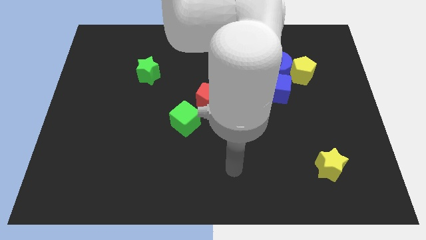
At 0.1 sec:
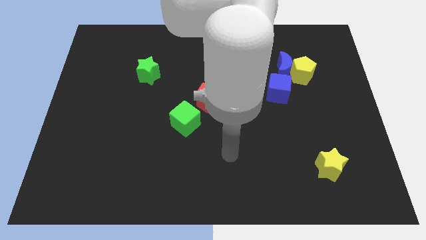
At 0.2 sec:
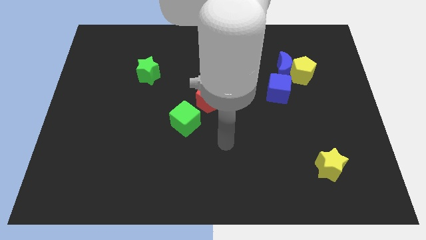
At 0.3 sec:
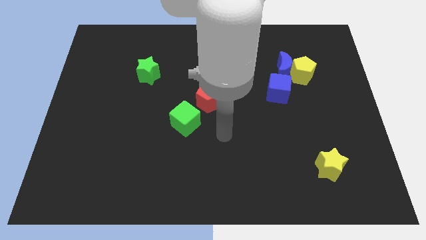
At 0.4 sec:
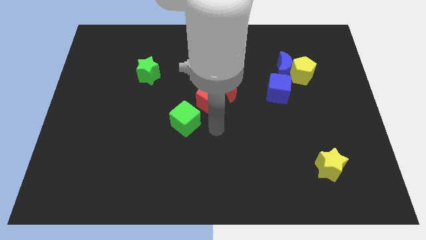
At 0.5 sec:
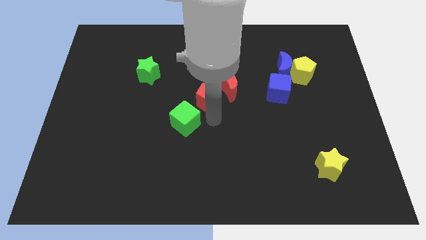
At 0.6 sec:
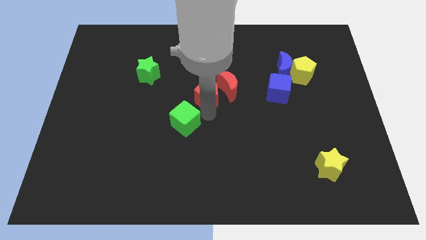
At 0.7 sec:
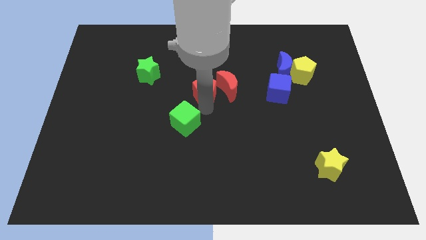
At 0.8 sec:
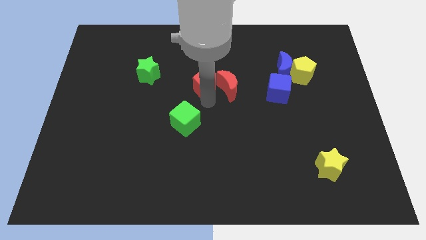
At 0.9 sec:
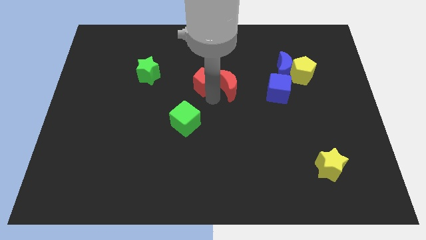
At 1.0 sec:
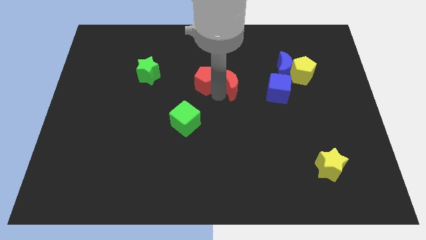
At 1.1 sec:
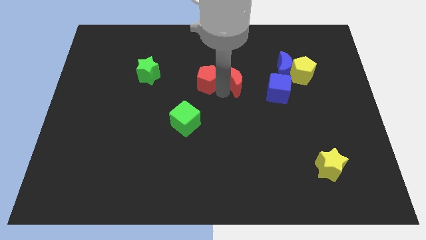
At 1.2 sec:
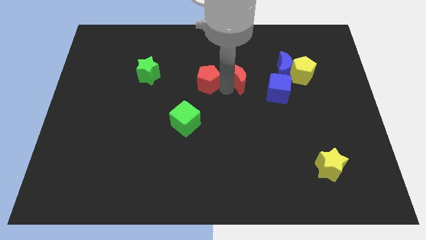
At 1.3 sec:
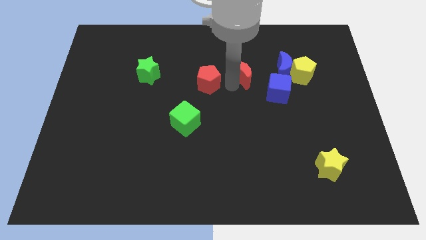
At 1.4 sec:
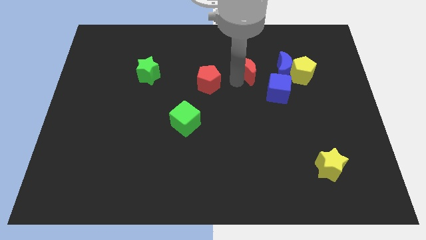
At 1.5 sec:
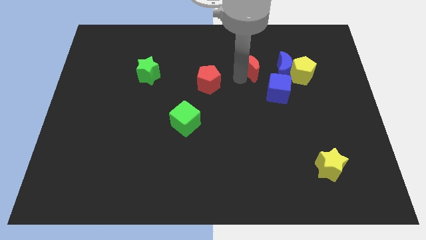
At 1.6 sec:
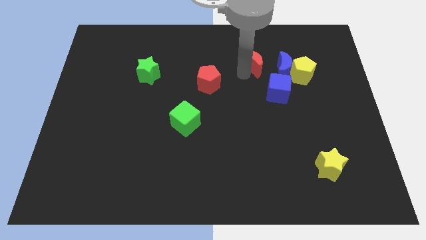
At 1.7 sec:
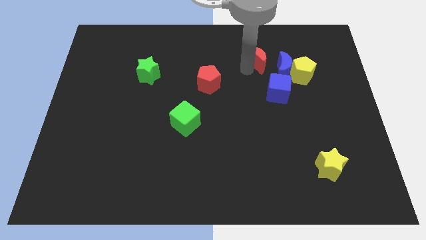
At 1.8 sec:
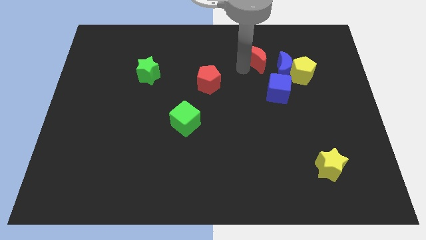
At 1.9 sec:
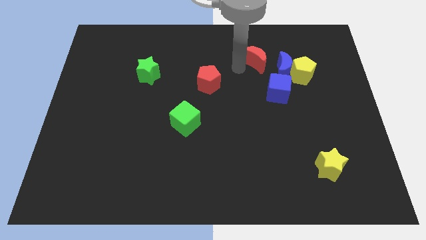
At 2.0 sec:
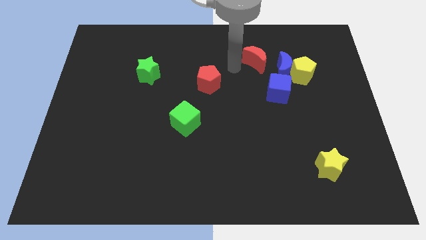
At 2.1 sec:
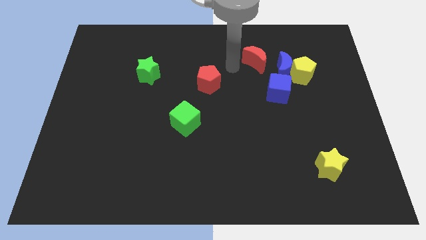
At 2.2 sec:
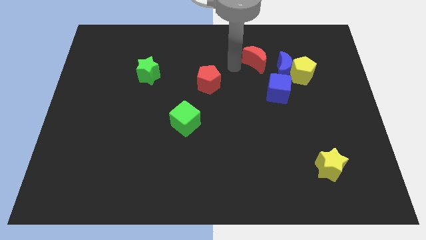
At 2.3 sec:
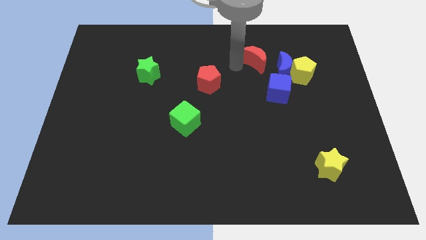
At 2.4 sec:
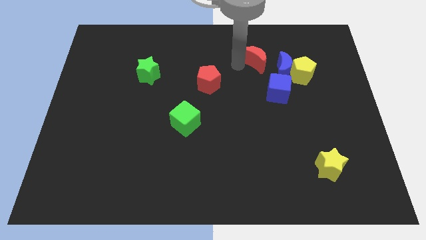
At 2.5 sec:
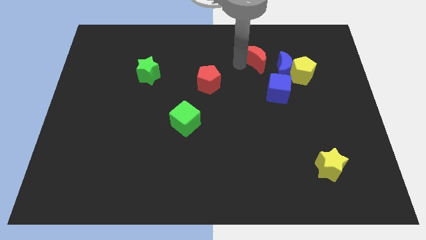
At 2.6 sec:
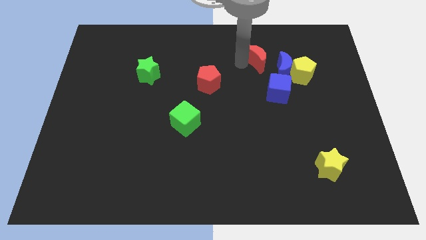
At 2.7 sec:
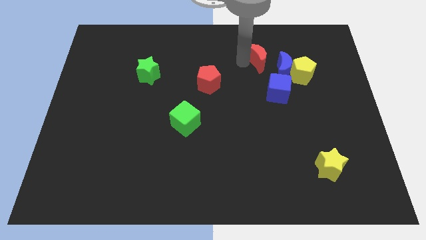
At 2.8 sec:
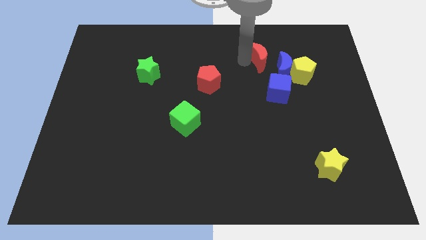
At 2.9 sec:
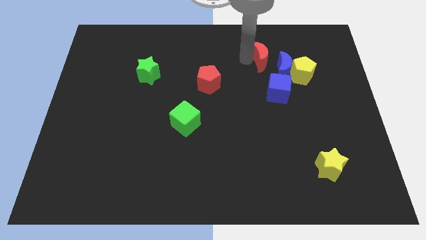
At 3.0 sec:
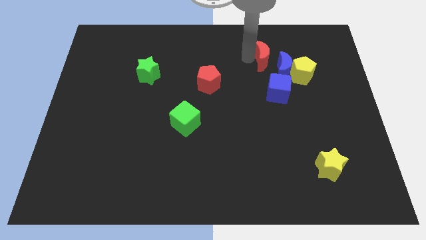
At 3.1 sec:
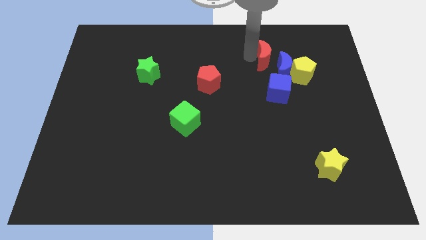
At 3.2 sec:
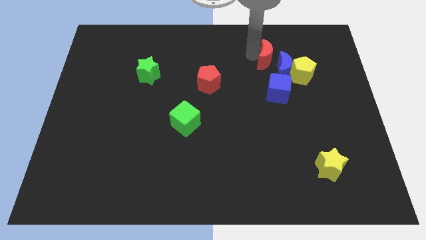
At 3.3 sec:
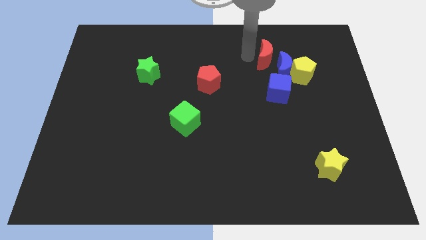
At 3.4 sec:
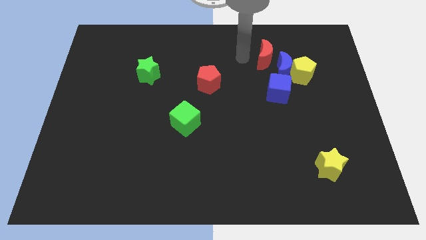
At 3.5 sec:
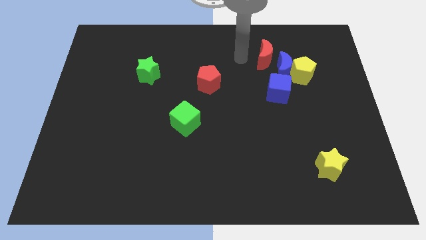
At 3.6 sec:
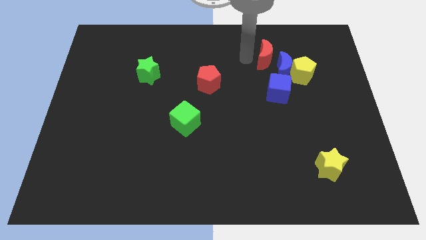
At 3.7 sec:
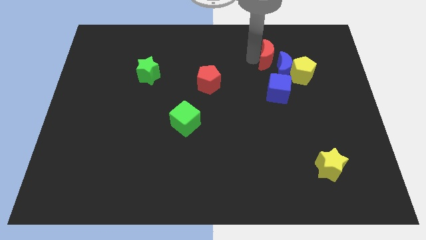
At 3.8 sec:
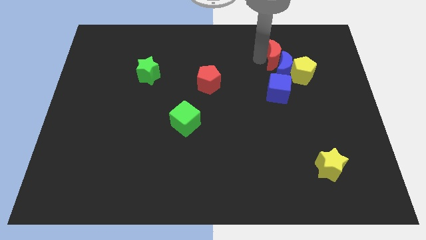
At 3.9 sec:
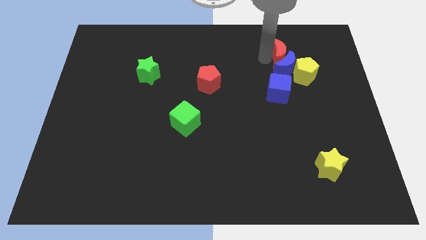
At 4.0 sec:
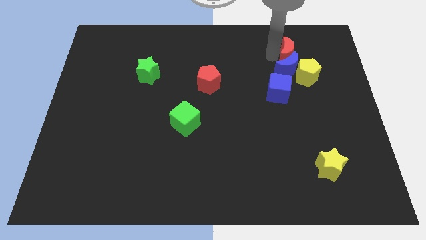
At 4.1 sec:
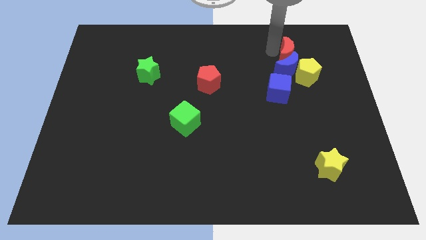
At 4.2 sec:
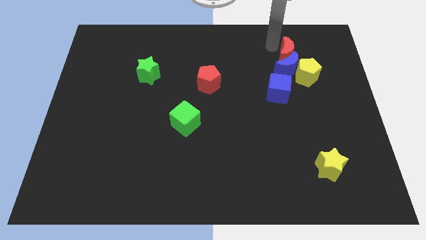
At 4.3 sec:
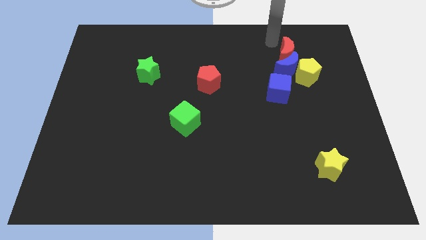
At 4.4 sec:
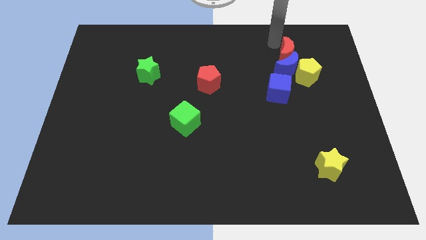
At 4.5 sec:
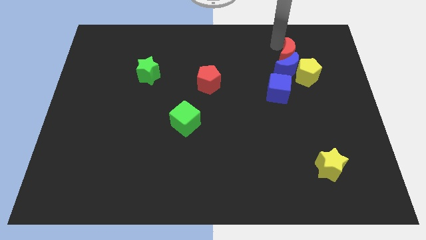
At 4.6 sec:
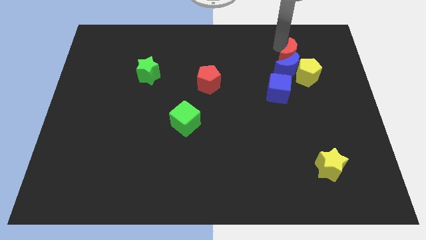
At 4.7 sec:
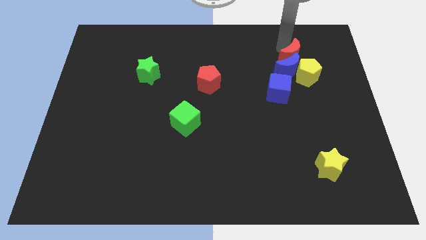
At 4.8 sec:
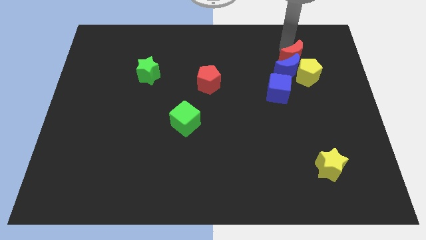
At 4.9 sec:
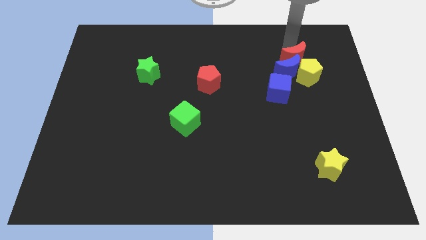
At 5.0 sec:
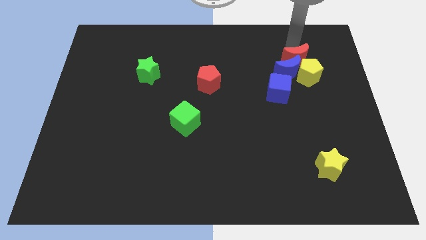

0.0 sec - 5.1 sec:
put the red moon to the yellow pentagon

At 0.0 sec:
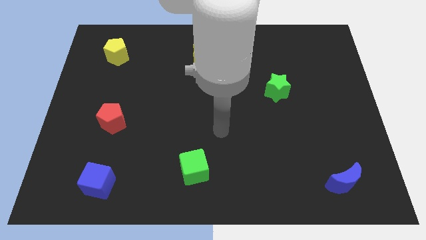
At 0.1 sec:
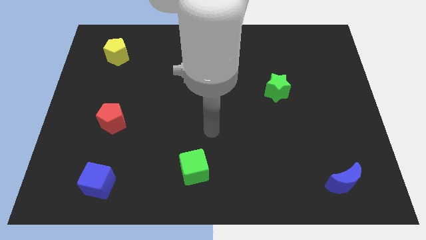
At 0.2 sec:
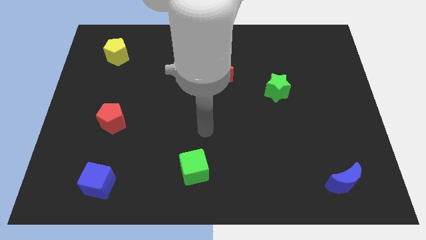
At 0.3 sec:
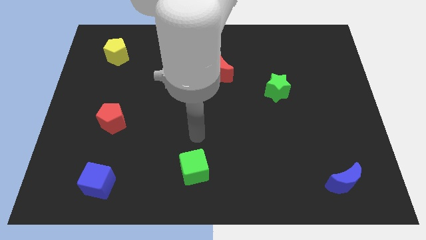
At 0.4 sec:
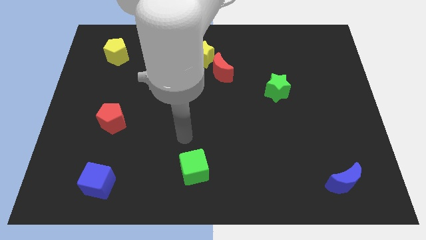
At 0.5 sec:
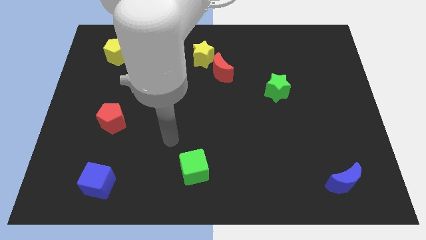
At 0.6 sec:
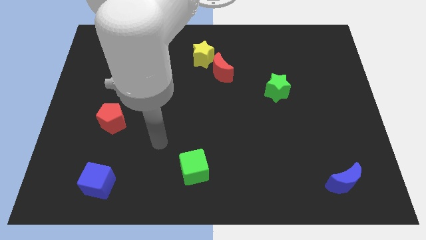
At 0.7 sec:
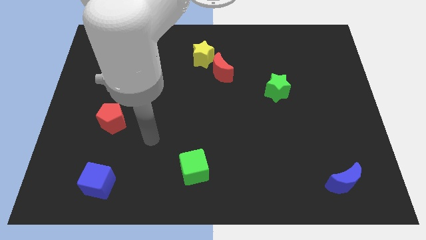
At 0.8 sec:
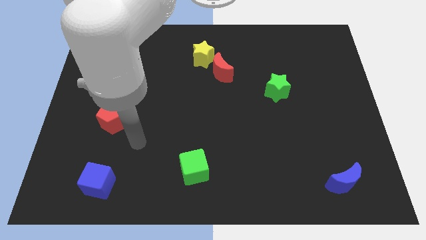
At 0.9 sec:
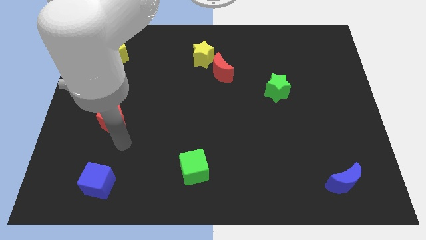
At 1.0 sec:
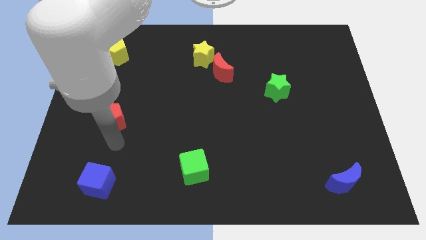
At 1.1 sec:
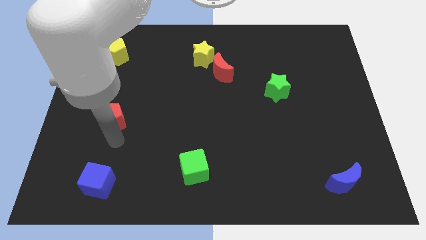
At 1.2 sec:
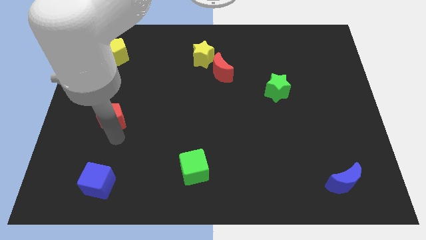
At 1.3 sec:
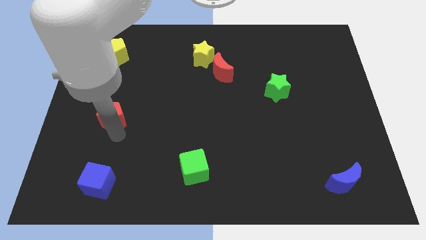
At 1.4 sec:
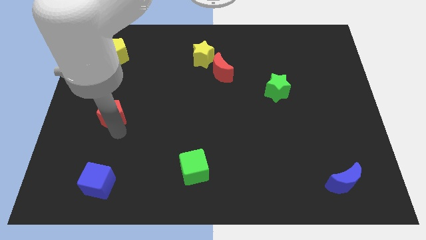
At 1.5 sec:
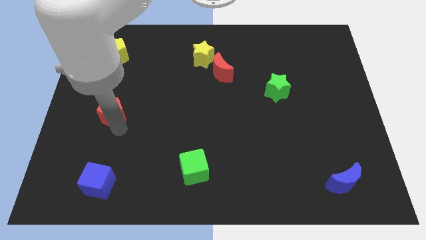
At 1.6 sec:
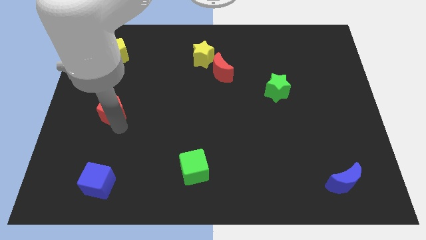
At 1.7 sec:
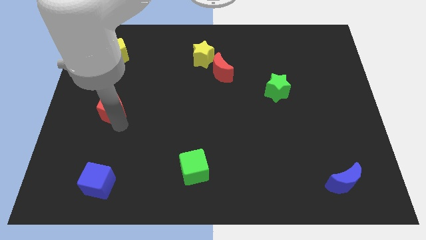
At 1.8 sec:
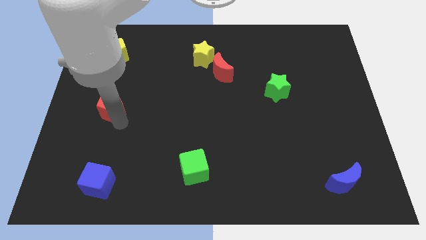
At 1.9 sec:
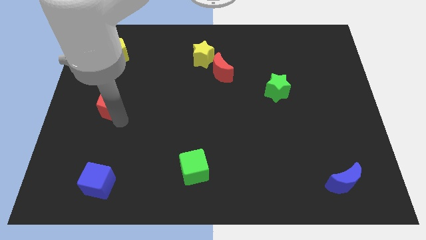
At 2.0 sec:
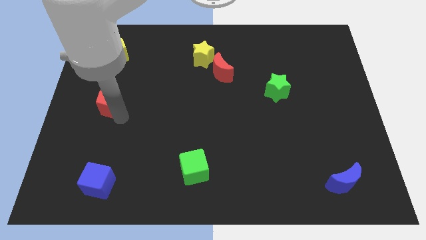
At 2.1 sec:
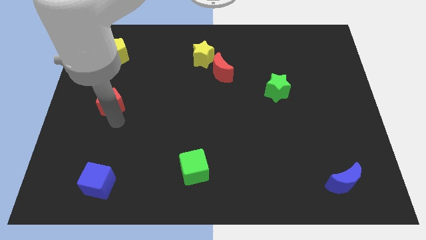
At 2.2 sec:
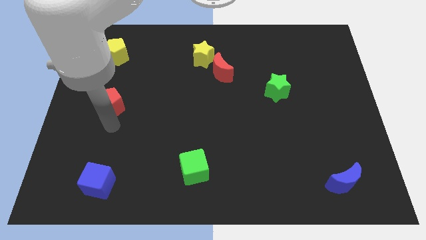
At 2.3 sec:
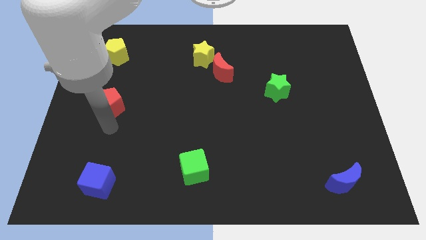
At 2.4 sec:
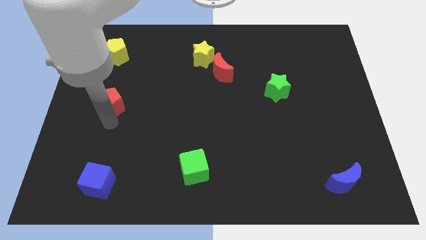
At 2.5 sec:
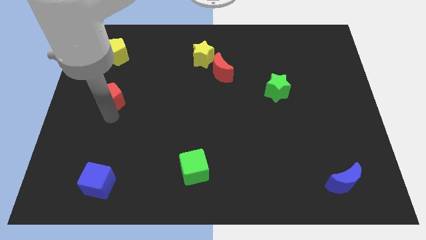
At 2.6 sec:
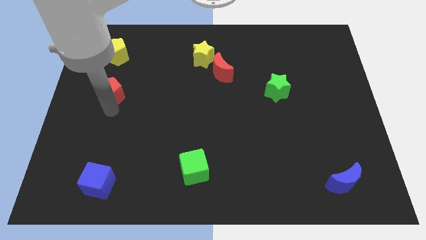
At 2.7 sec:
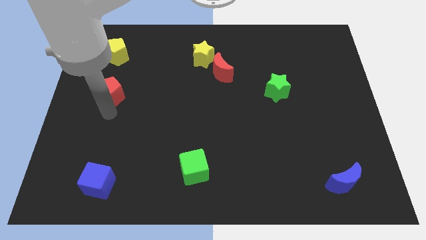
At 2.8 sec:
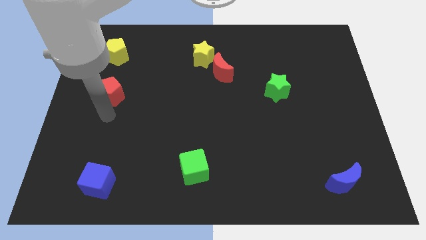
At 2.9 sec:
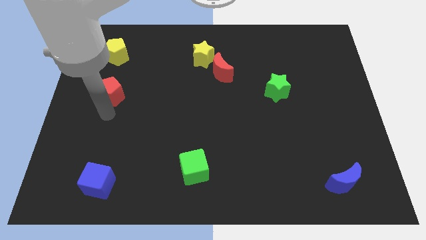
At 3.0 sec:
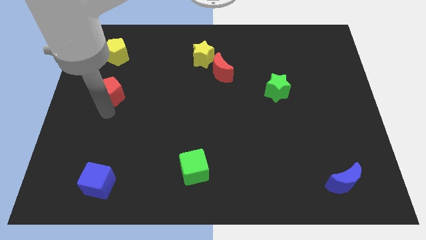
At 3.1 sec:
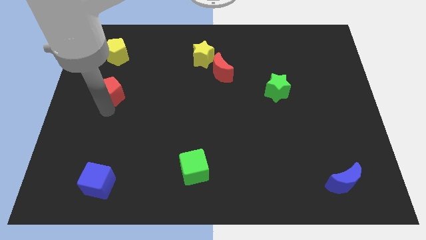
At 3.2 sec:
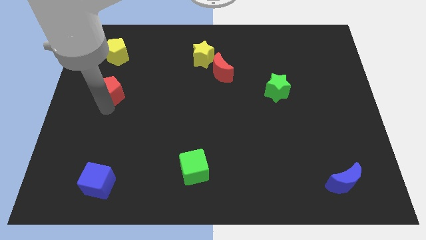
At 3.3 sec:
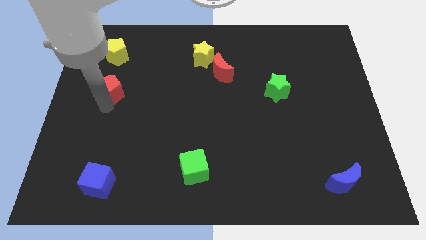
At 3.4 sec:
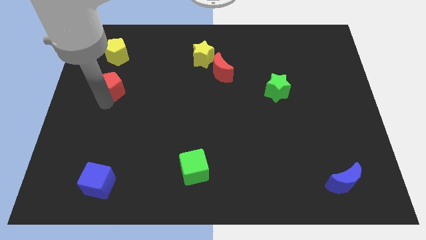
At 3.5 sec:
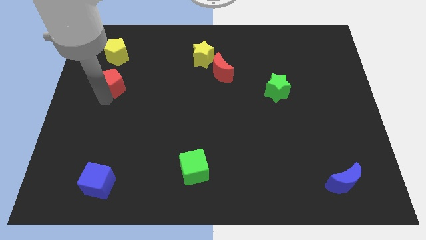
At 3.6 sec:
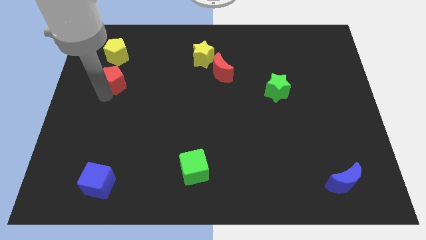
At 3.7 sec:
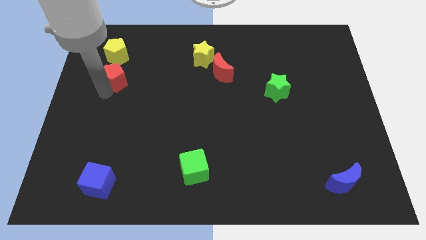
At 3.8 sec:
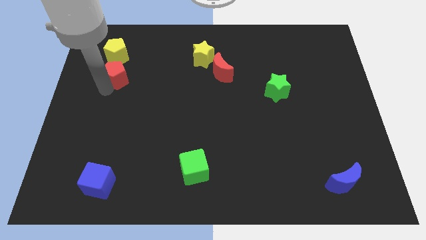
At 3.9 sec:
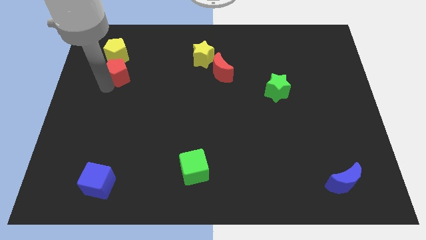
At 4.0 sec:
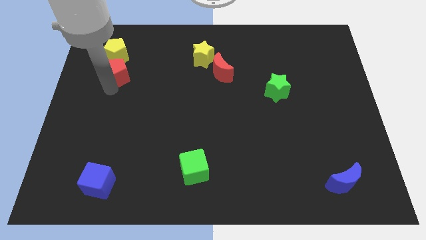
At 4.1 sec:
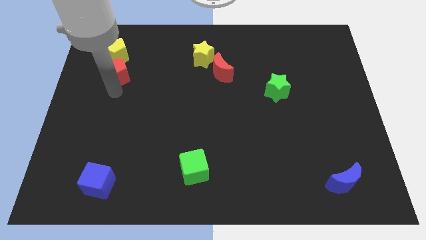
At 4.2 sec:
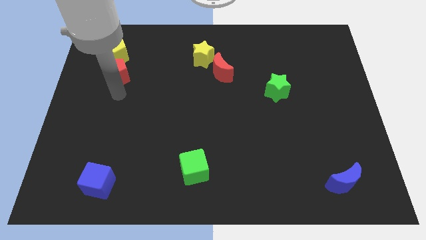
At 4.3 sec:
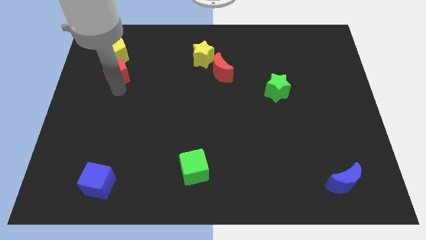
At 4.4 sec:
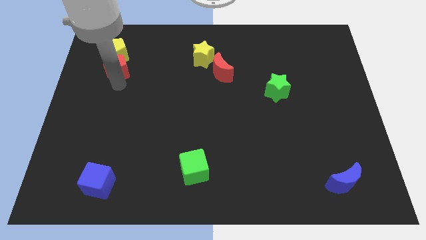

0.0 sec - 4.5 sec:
move the red pentagon next to the yellow pentagon
